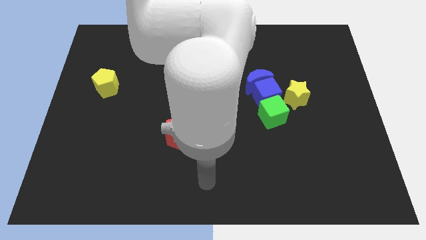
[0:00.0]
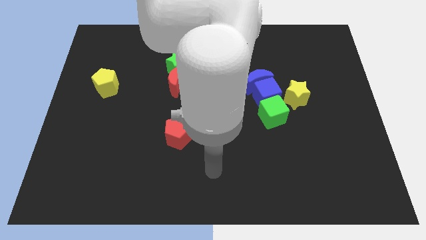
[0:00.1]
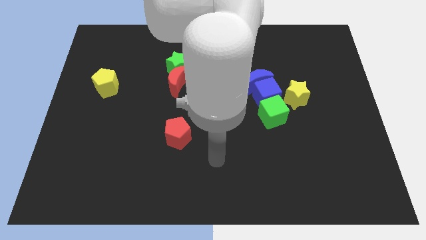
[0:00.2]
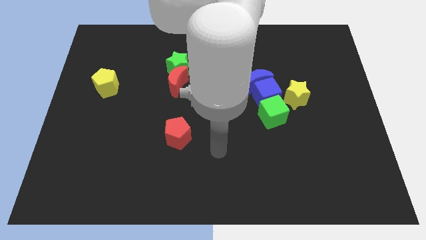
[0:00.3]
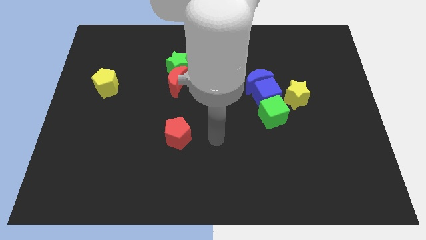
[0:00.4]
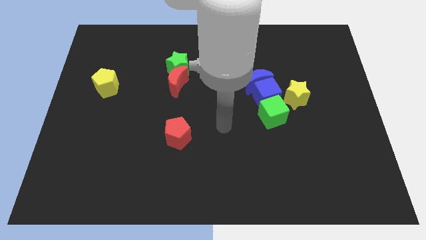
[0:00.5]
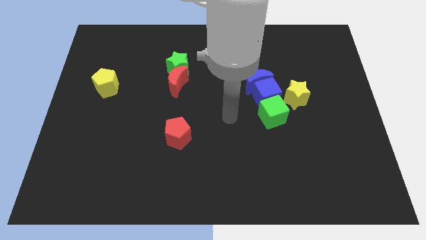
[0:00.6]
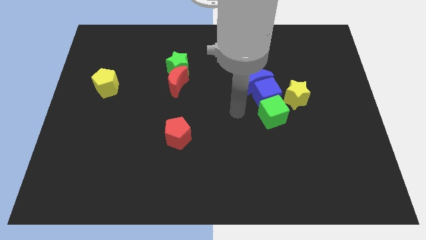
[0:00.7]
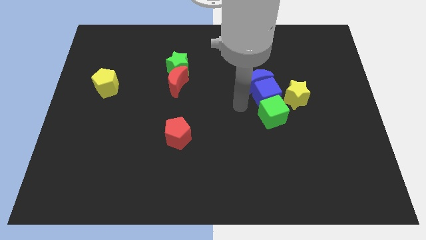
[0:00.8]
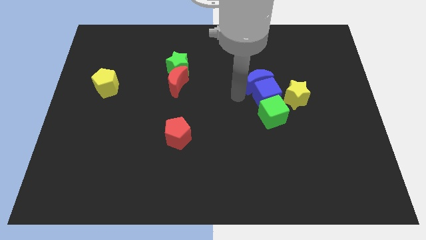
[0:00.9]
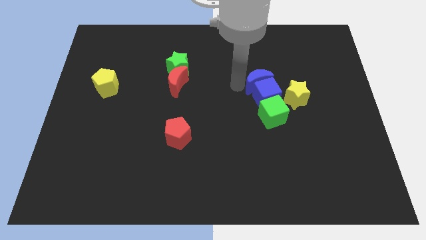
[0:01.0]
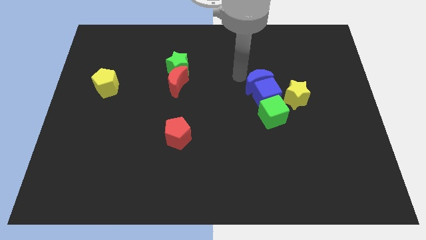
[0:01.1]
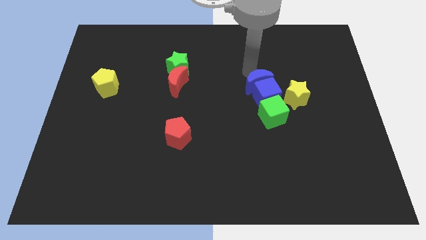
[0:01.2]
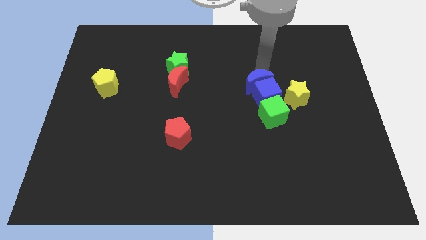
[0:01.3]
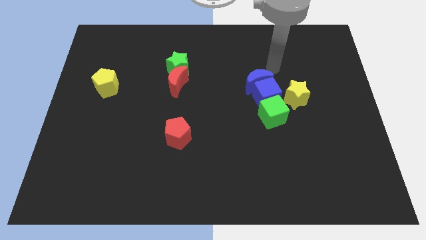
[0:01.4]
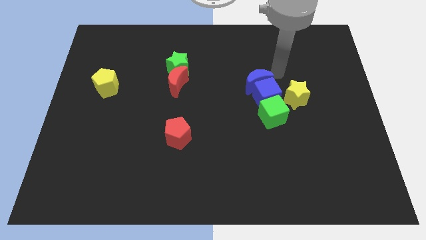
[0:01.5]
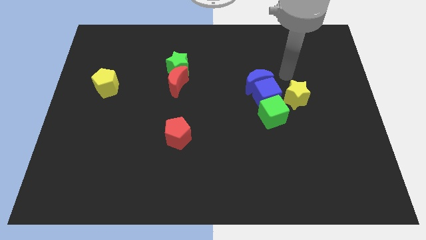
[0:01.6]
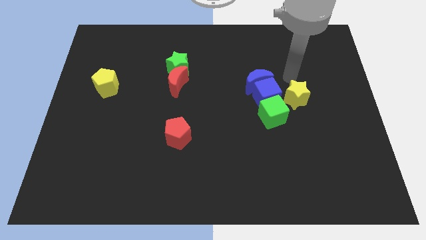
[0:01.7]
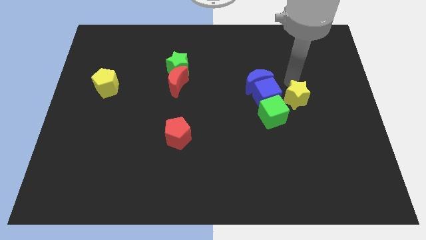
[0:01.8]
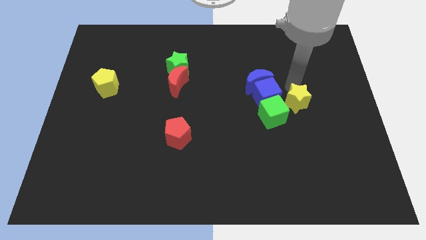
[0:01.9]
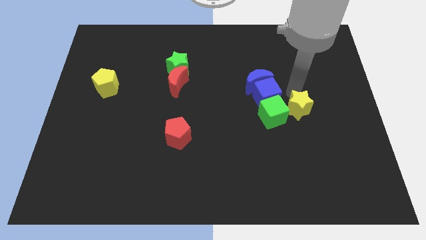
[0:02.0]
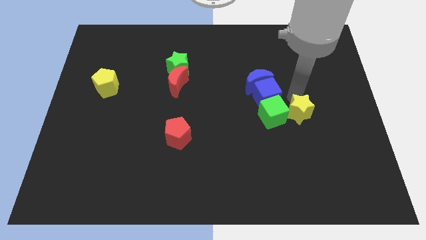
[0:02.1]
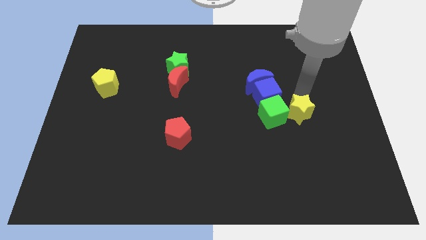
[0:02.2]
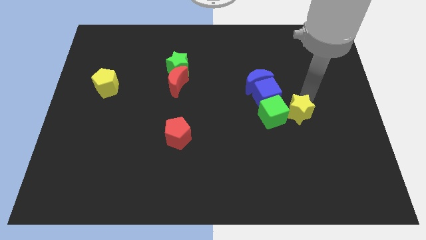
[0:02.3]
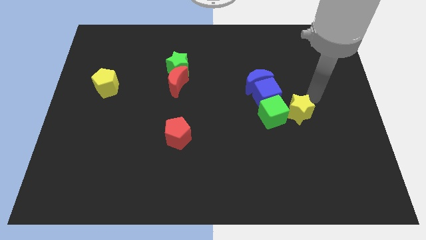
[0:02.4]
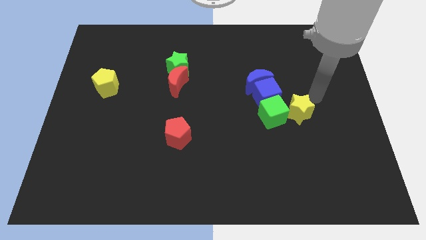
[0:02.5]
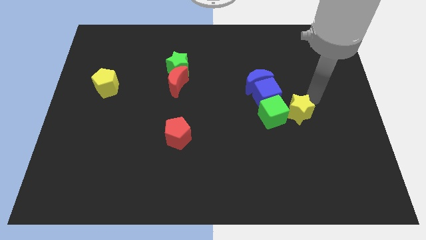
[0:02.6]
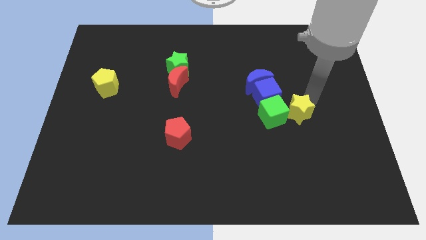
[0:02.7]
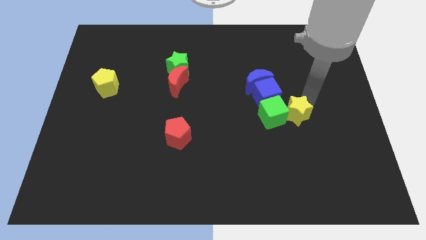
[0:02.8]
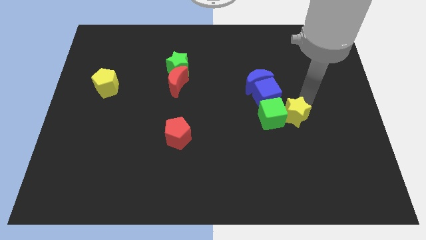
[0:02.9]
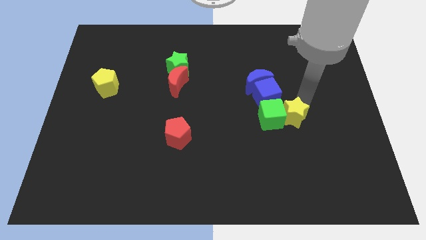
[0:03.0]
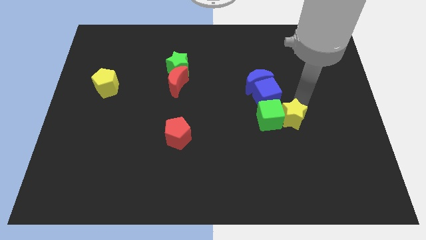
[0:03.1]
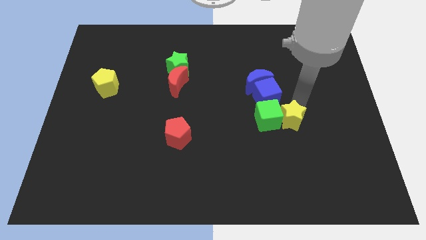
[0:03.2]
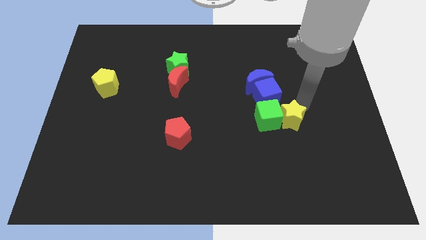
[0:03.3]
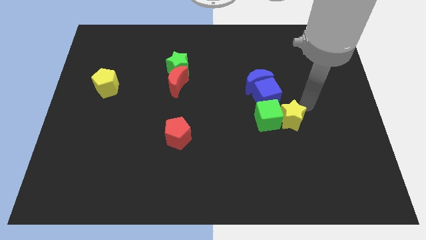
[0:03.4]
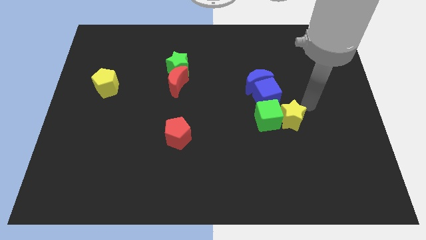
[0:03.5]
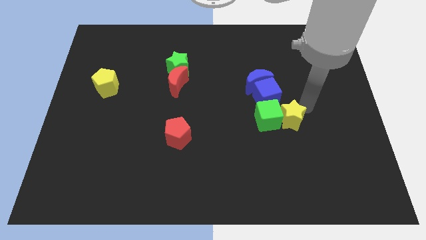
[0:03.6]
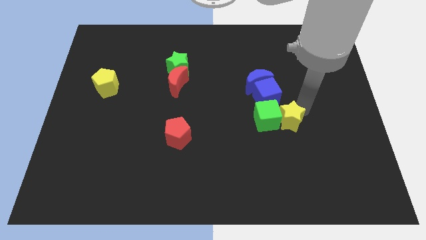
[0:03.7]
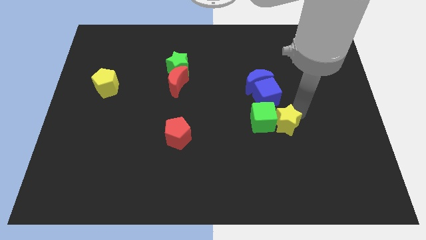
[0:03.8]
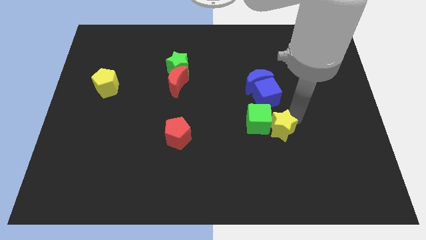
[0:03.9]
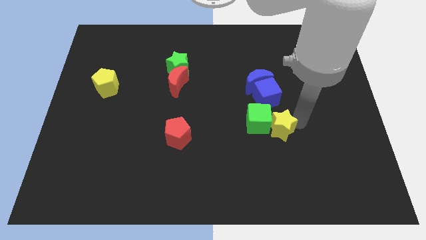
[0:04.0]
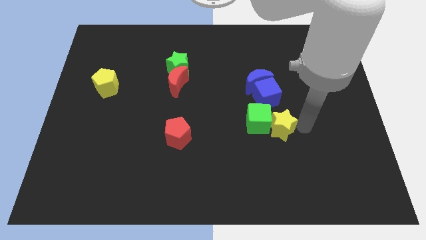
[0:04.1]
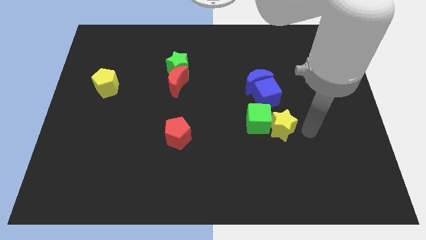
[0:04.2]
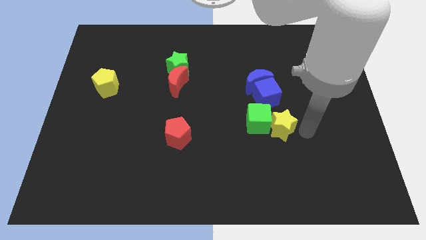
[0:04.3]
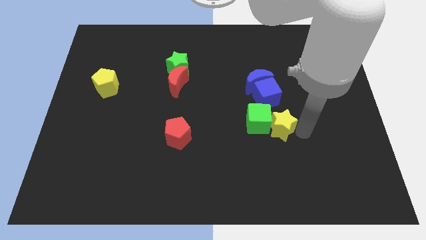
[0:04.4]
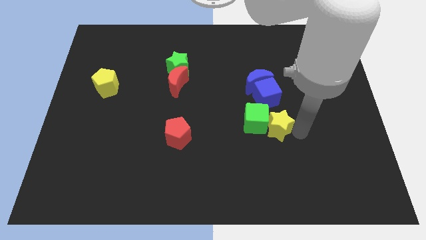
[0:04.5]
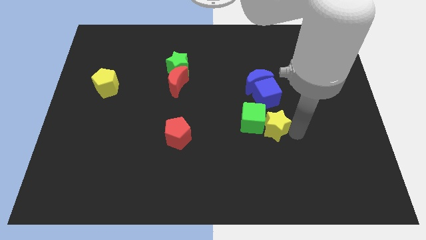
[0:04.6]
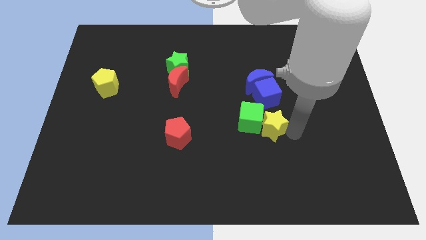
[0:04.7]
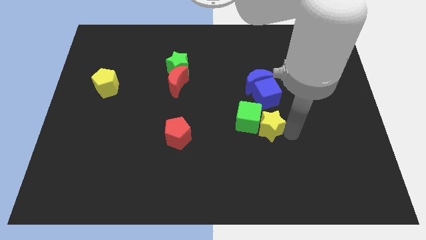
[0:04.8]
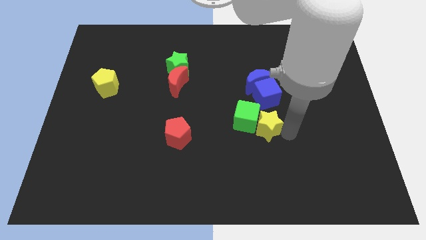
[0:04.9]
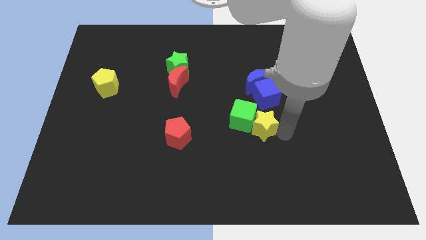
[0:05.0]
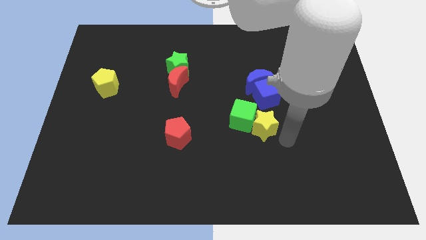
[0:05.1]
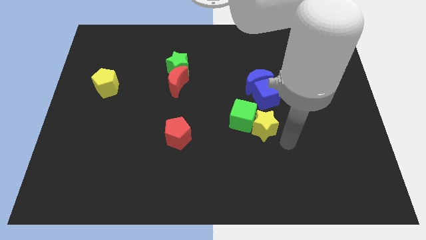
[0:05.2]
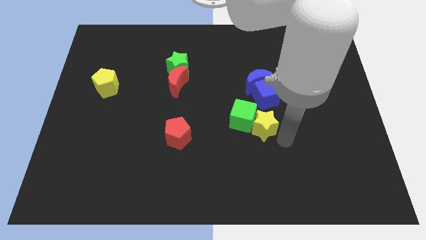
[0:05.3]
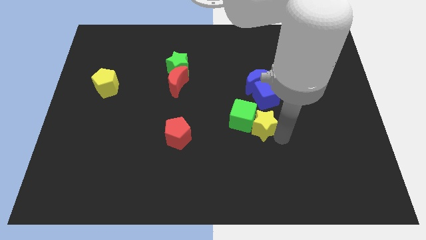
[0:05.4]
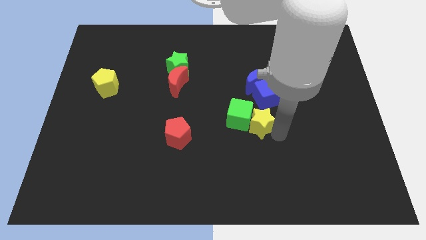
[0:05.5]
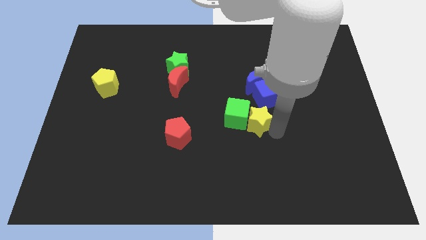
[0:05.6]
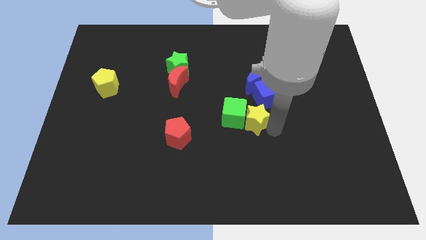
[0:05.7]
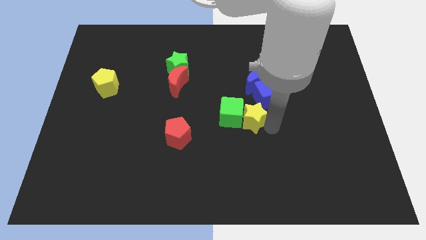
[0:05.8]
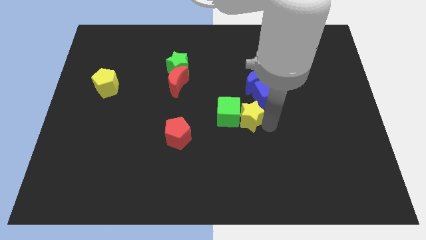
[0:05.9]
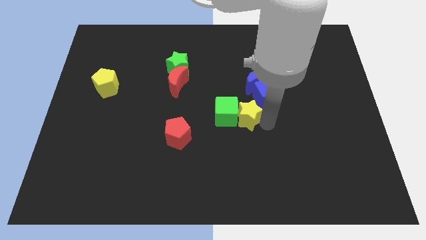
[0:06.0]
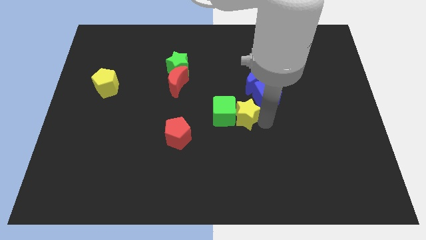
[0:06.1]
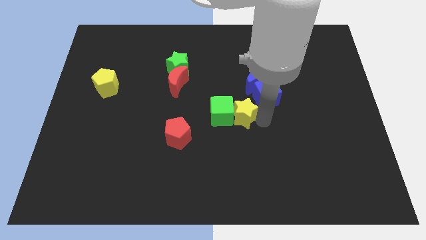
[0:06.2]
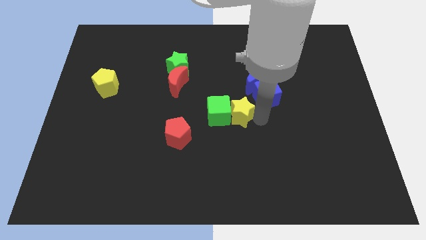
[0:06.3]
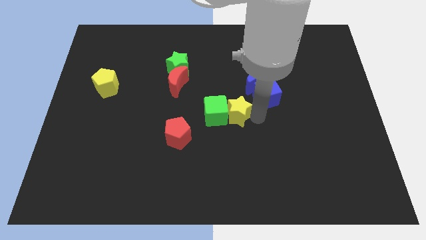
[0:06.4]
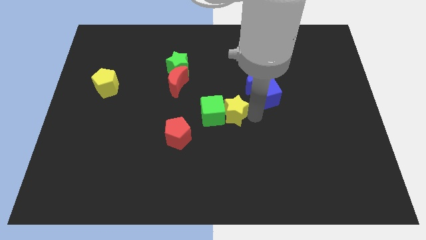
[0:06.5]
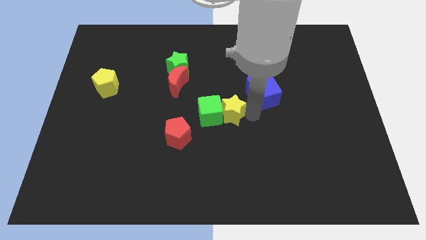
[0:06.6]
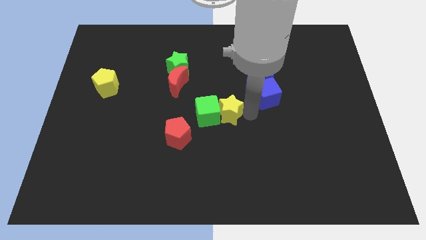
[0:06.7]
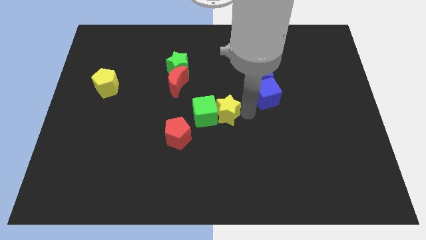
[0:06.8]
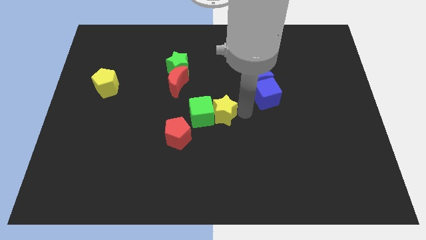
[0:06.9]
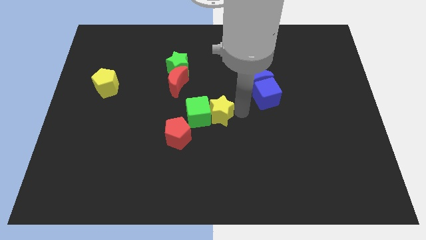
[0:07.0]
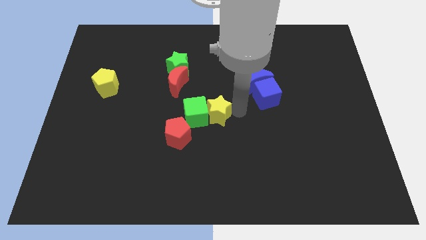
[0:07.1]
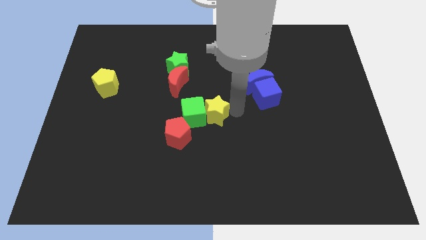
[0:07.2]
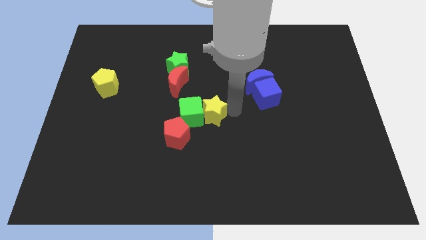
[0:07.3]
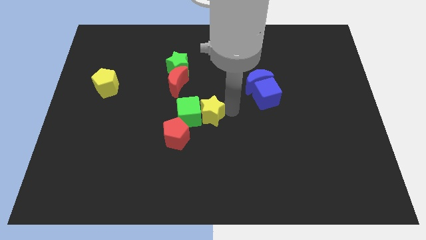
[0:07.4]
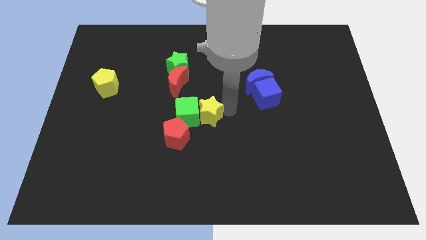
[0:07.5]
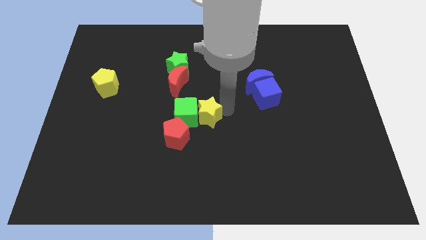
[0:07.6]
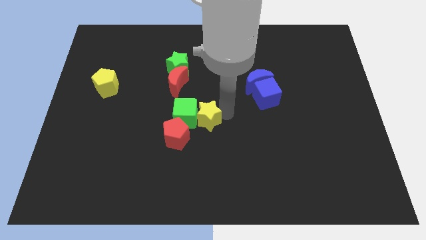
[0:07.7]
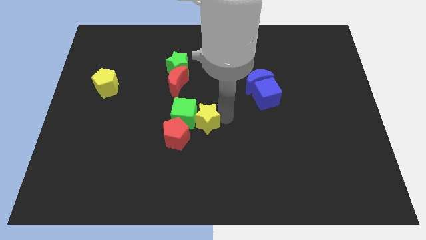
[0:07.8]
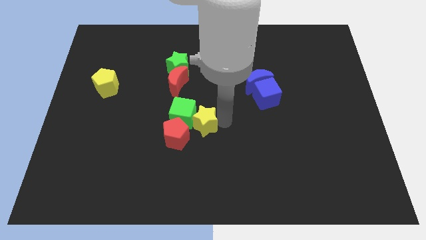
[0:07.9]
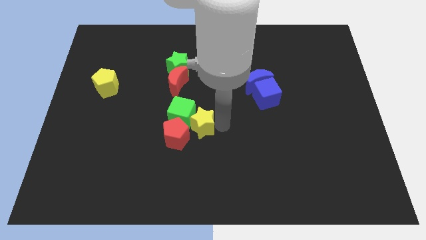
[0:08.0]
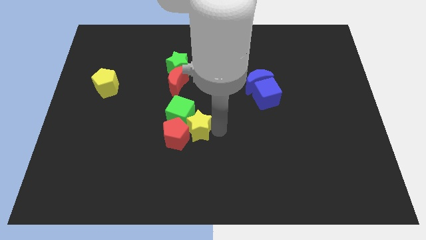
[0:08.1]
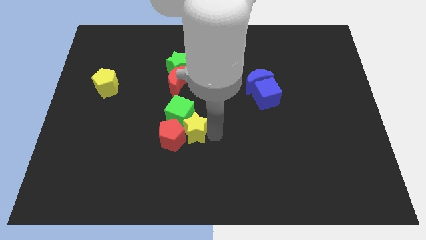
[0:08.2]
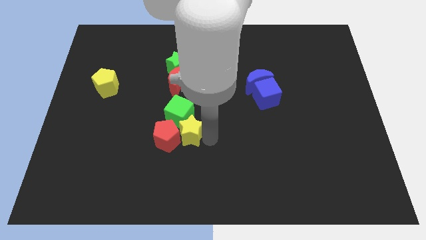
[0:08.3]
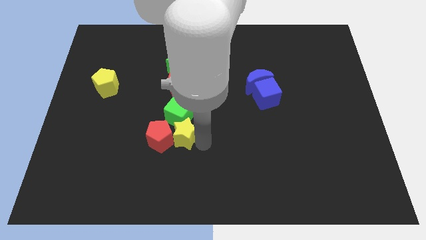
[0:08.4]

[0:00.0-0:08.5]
push the yellow star left
